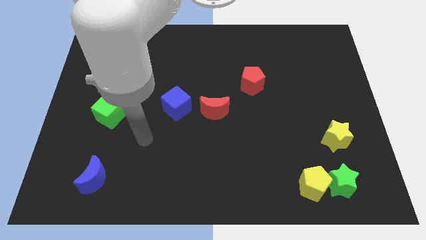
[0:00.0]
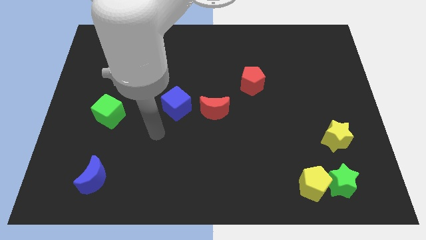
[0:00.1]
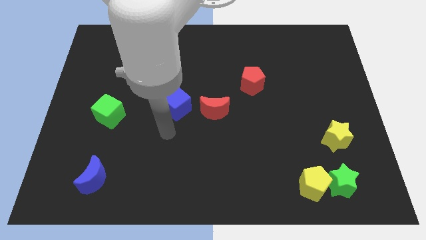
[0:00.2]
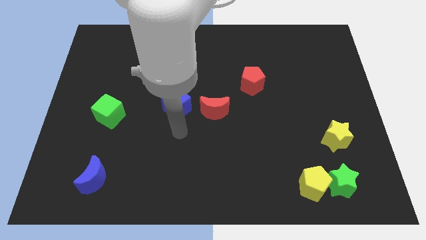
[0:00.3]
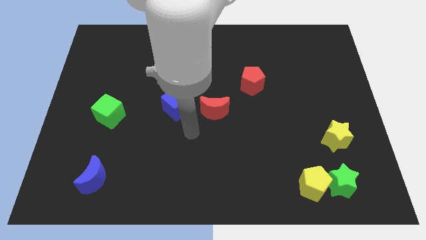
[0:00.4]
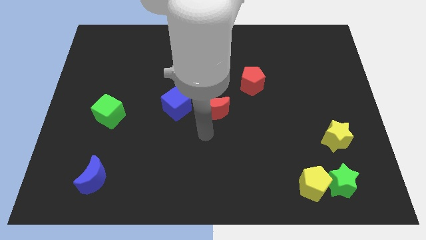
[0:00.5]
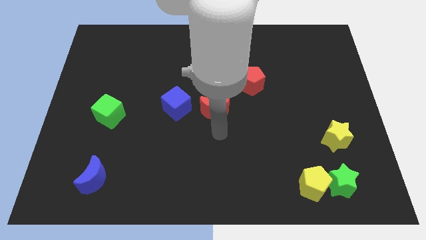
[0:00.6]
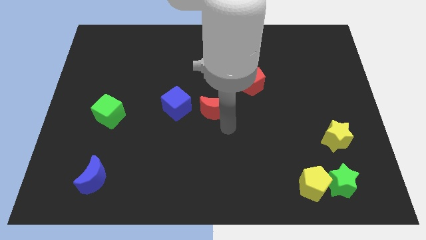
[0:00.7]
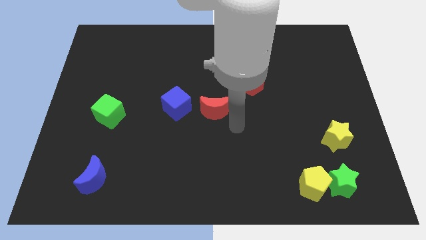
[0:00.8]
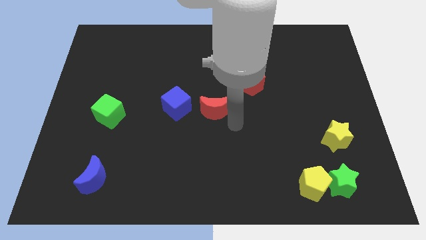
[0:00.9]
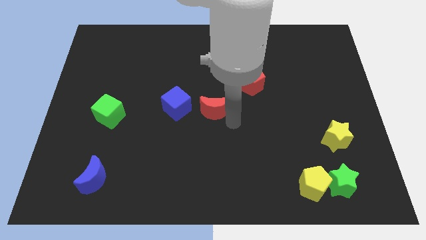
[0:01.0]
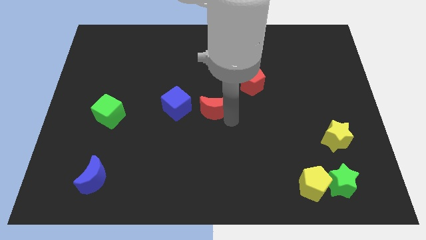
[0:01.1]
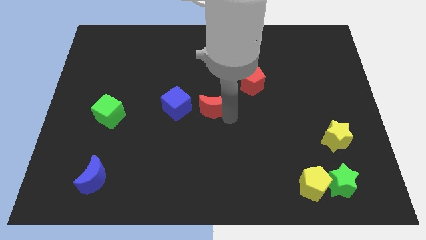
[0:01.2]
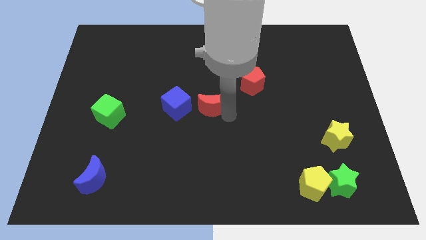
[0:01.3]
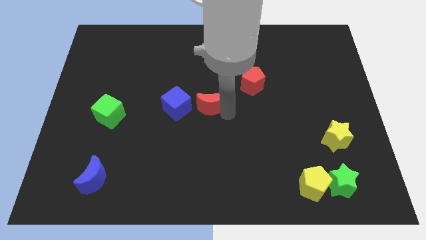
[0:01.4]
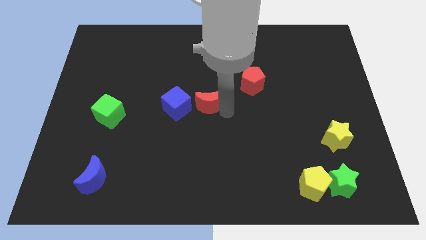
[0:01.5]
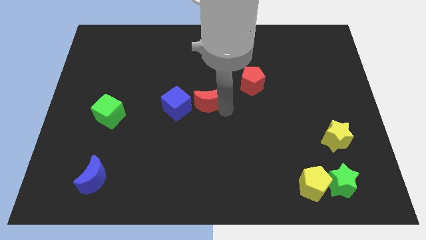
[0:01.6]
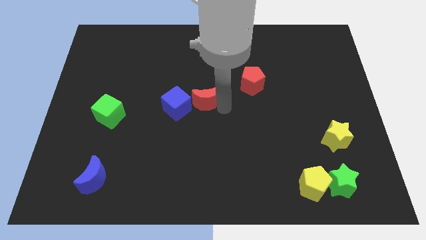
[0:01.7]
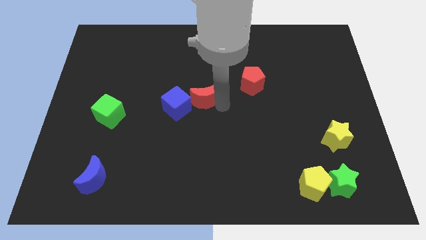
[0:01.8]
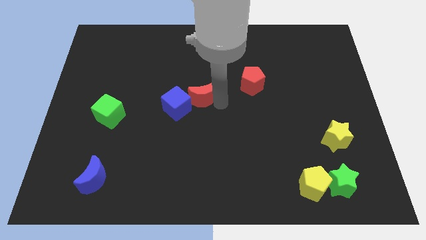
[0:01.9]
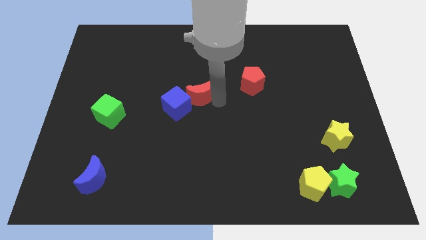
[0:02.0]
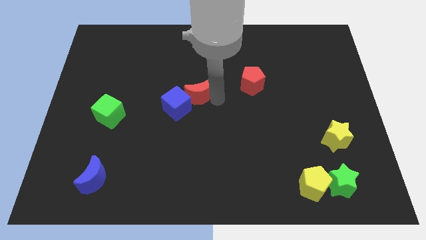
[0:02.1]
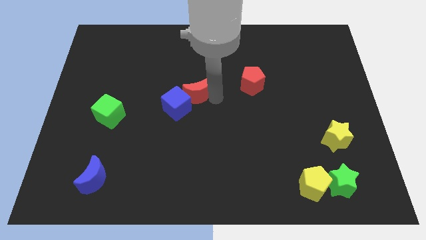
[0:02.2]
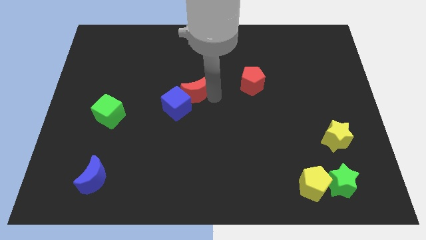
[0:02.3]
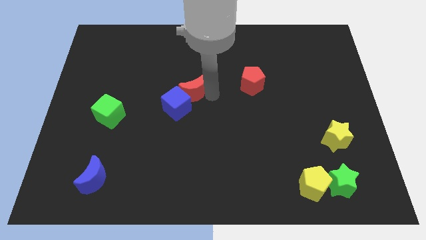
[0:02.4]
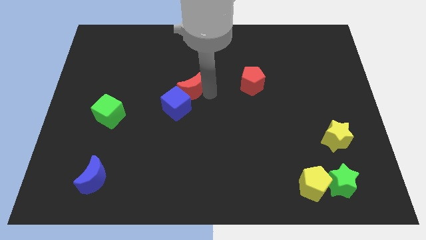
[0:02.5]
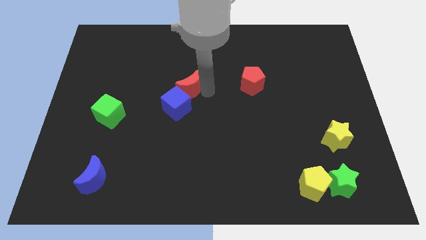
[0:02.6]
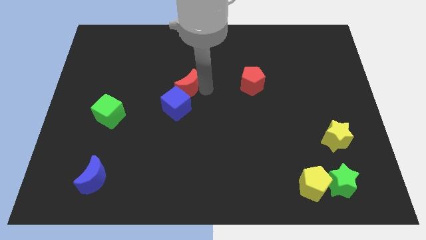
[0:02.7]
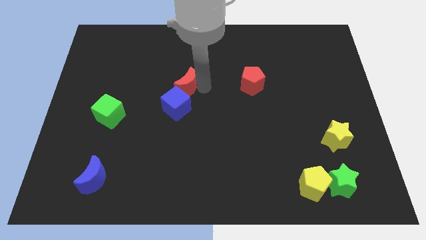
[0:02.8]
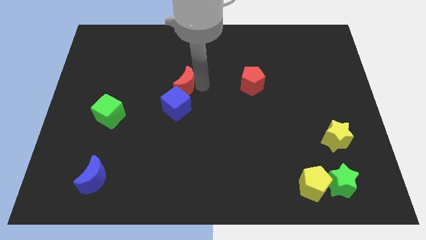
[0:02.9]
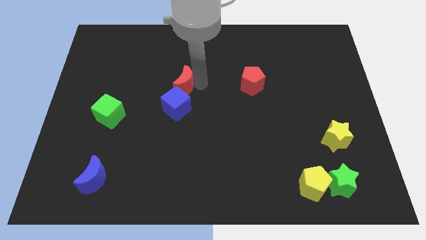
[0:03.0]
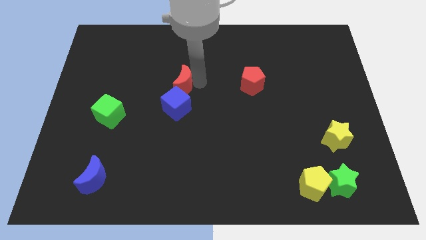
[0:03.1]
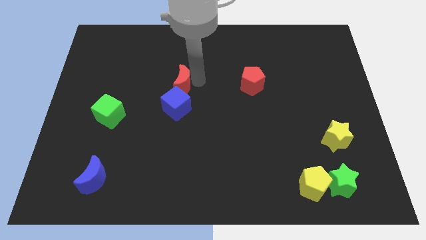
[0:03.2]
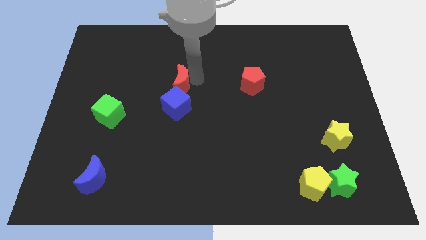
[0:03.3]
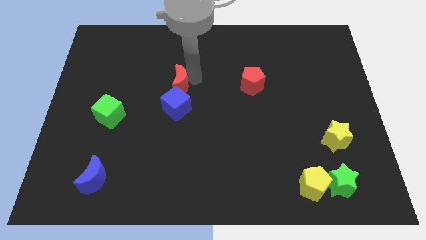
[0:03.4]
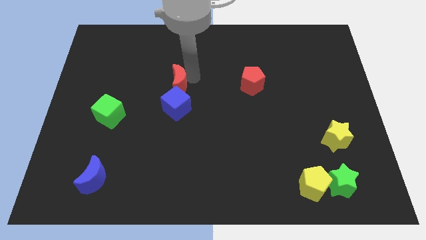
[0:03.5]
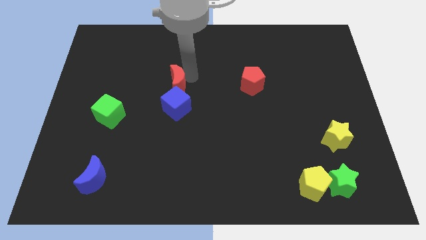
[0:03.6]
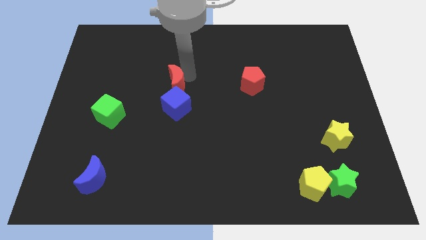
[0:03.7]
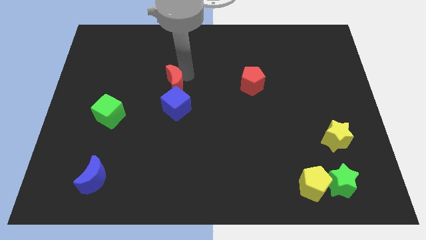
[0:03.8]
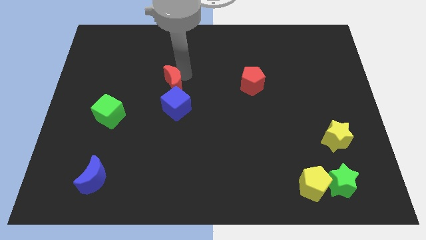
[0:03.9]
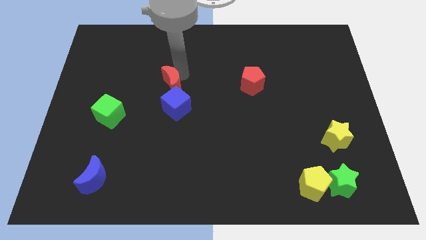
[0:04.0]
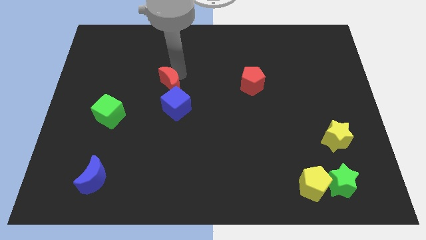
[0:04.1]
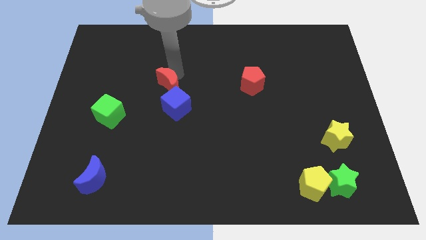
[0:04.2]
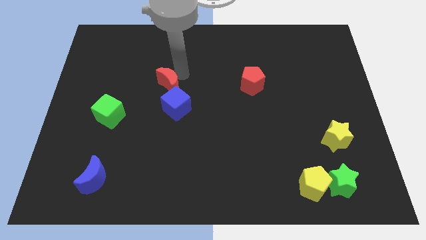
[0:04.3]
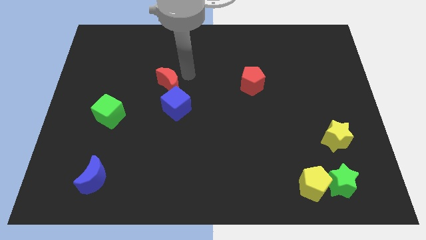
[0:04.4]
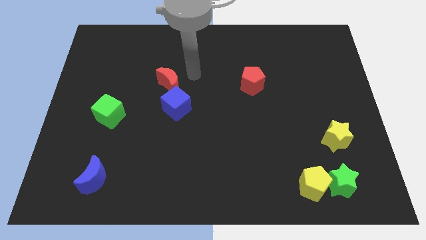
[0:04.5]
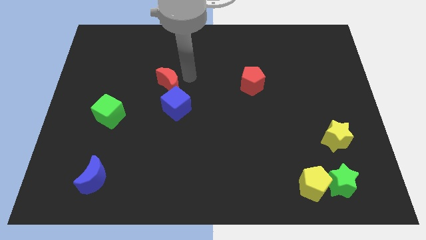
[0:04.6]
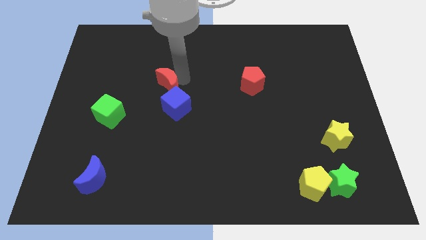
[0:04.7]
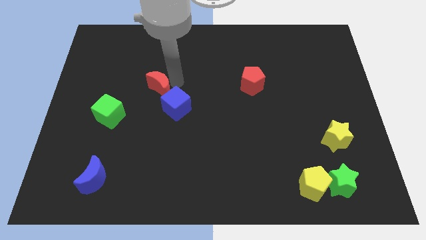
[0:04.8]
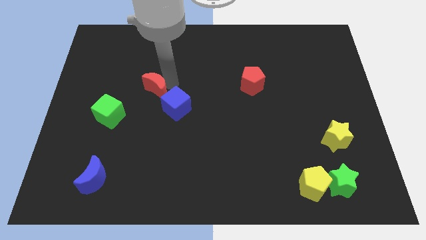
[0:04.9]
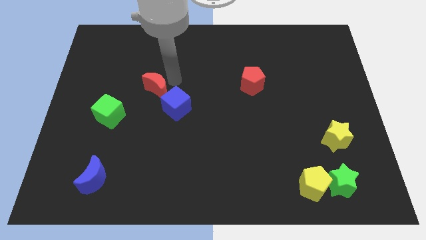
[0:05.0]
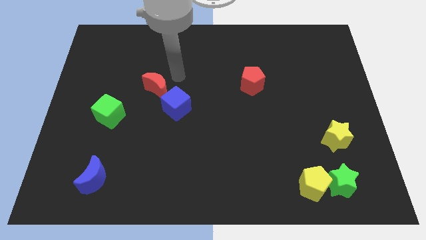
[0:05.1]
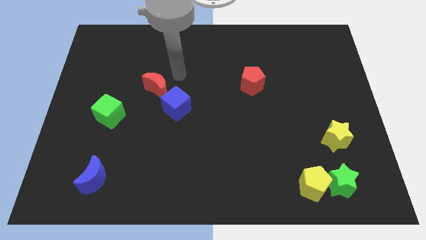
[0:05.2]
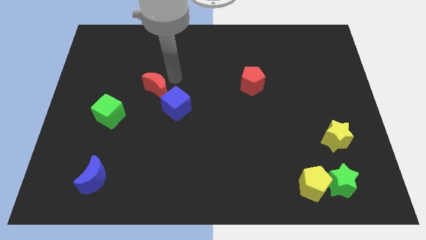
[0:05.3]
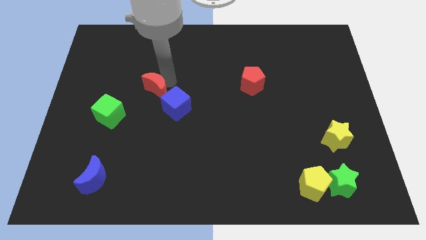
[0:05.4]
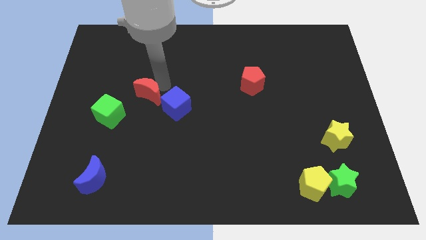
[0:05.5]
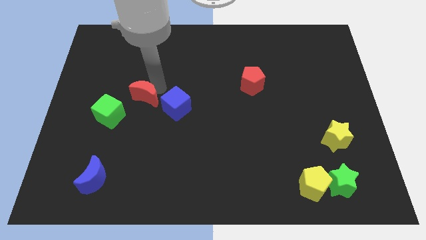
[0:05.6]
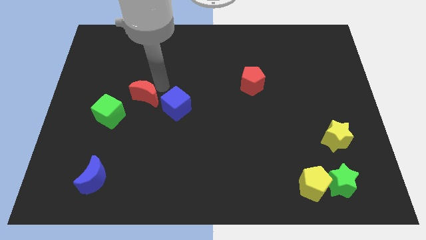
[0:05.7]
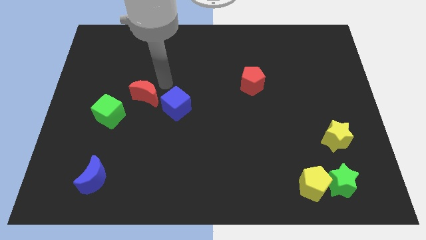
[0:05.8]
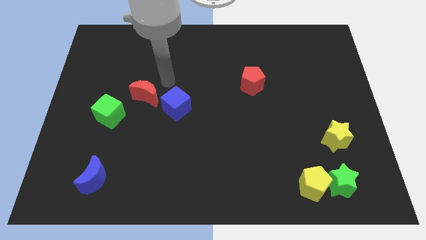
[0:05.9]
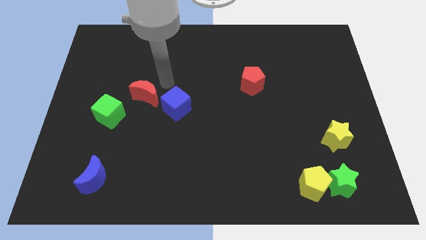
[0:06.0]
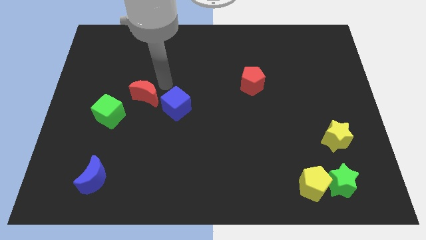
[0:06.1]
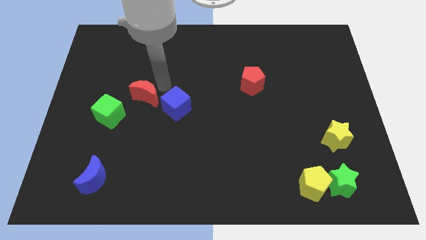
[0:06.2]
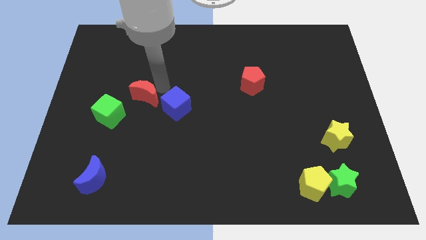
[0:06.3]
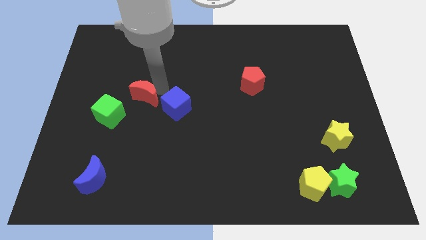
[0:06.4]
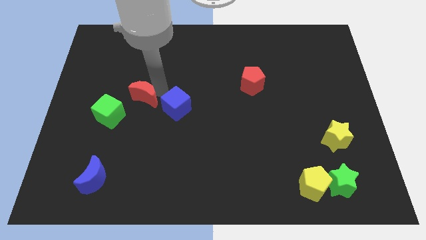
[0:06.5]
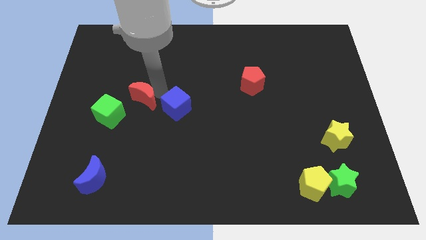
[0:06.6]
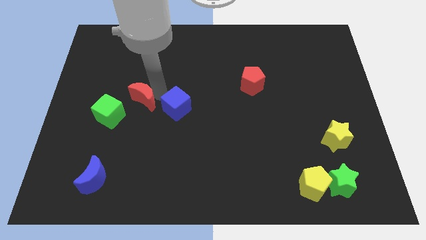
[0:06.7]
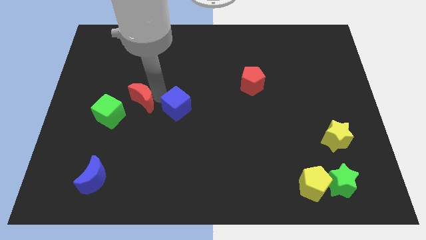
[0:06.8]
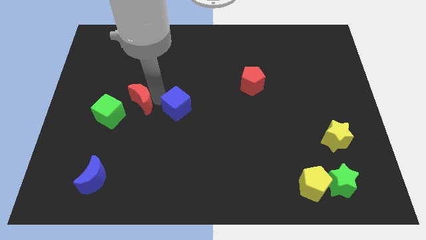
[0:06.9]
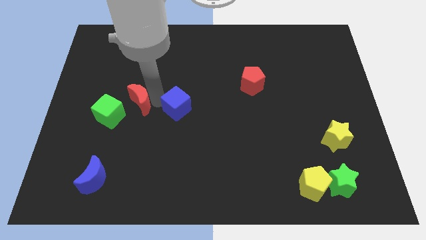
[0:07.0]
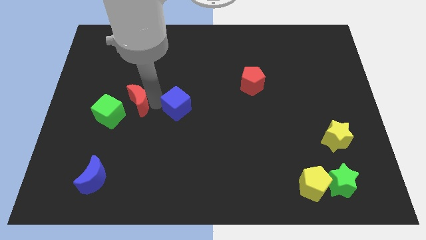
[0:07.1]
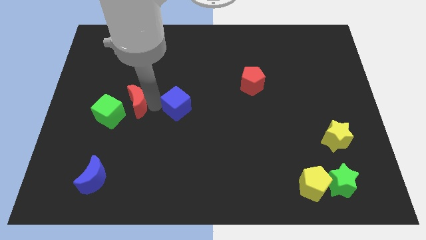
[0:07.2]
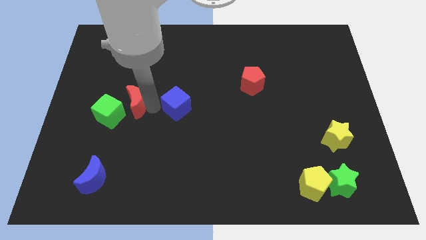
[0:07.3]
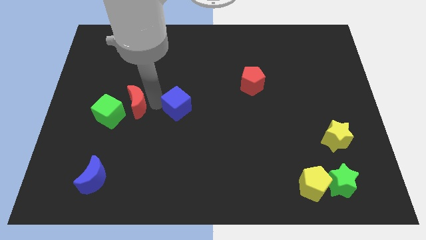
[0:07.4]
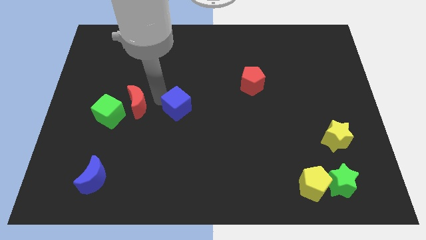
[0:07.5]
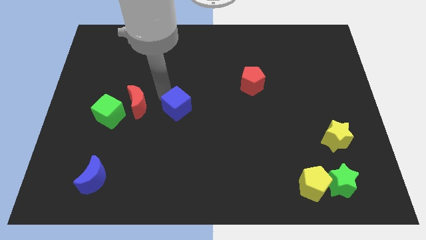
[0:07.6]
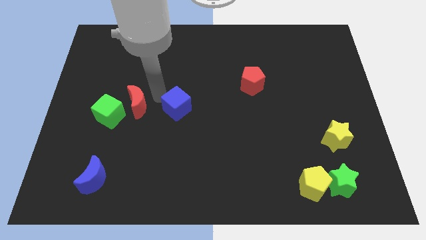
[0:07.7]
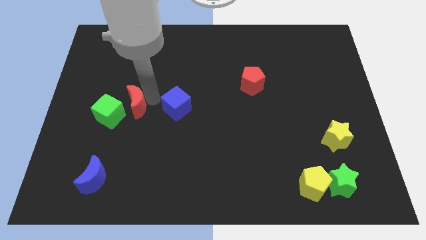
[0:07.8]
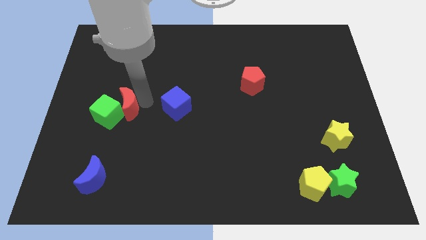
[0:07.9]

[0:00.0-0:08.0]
push the red moon towards the green cube
